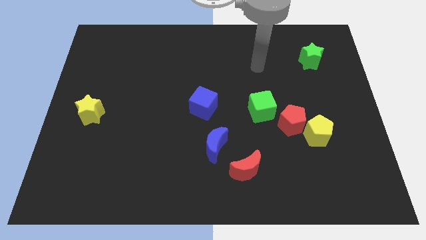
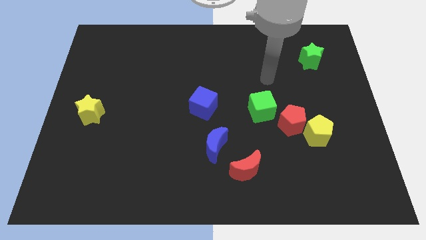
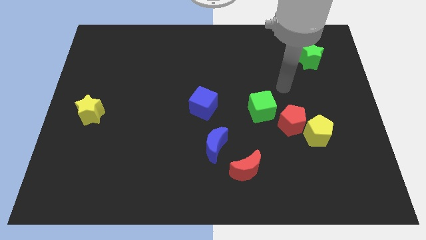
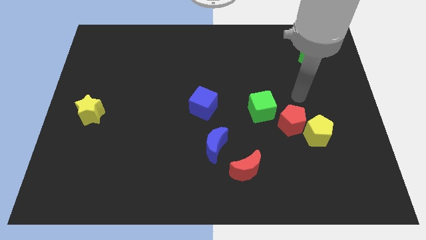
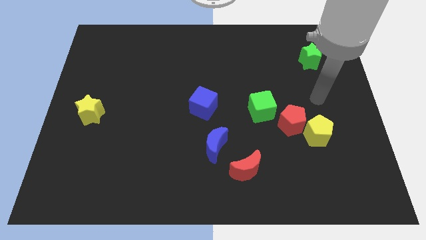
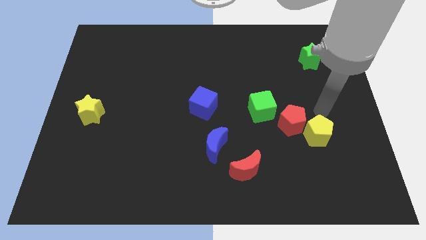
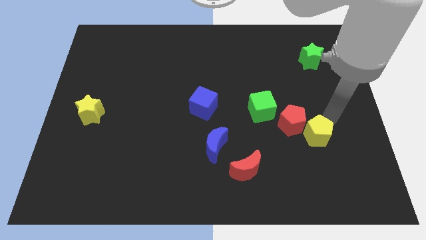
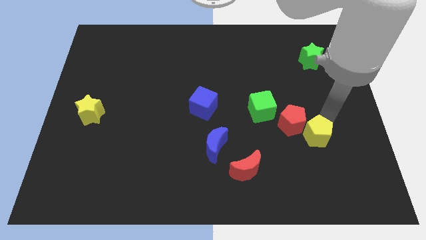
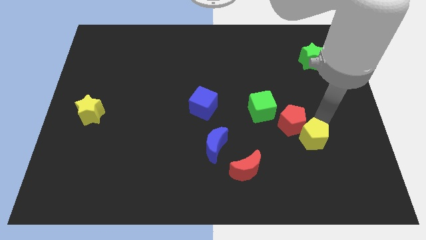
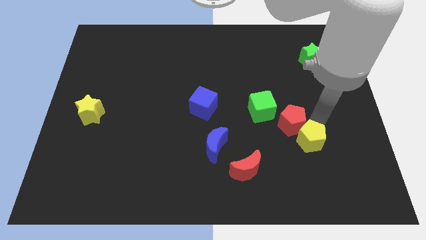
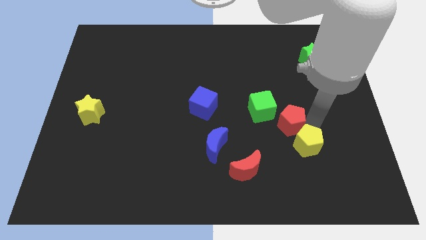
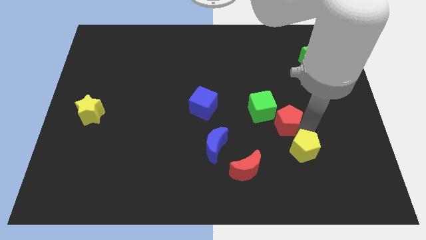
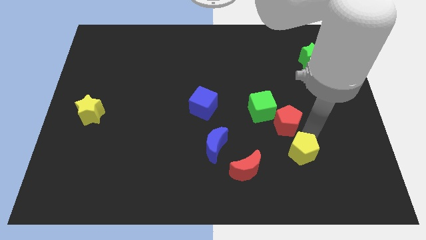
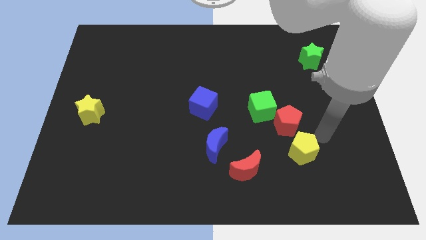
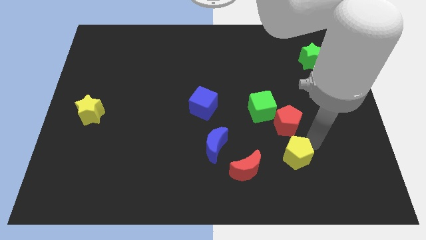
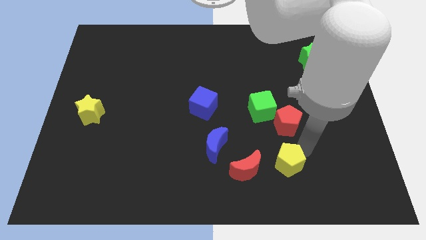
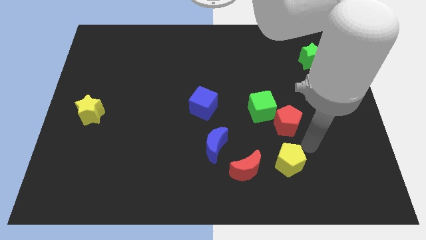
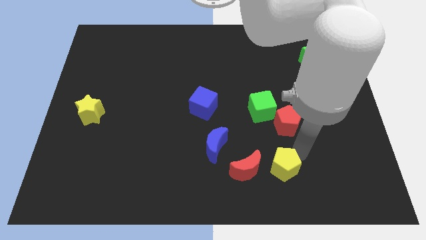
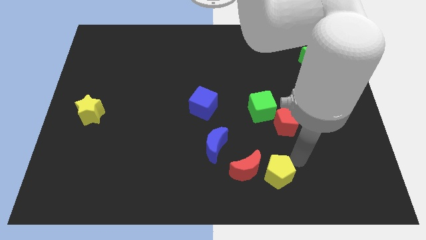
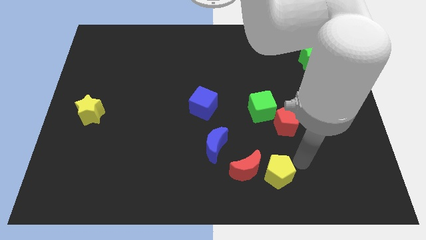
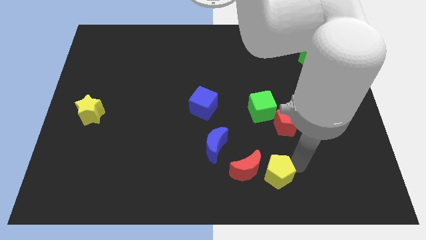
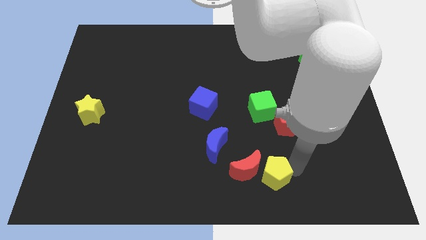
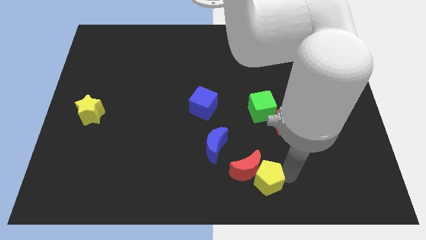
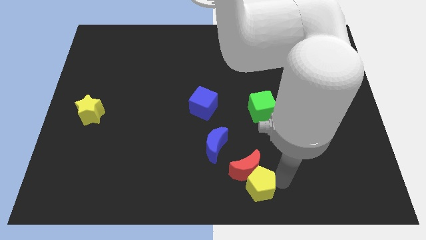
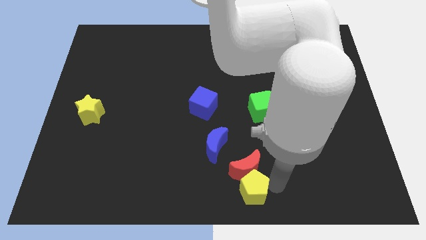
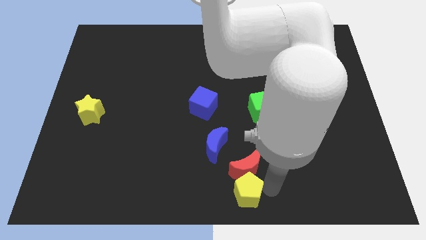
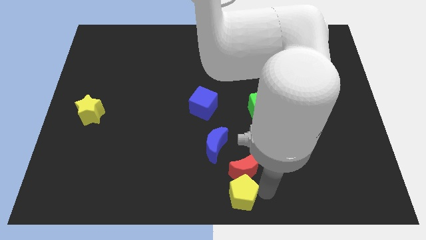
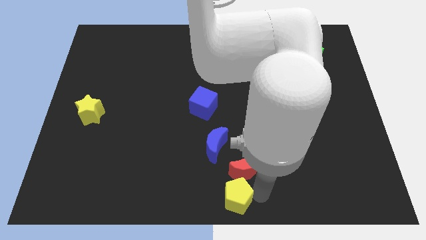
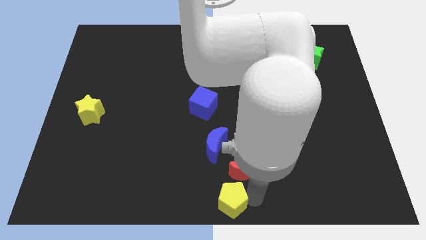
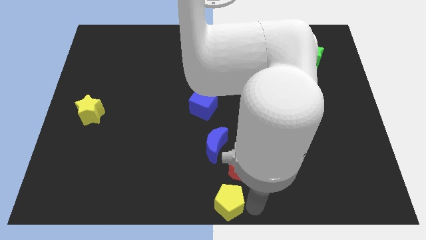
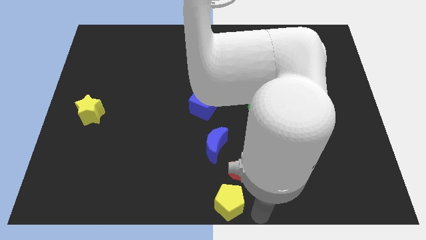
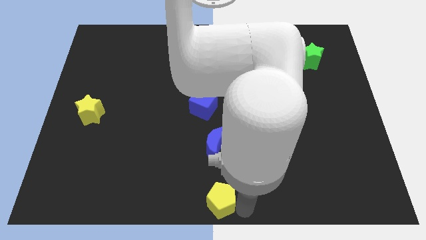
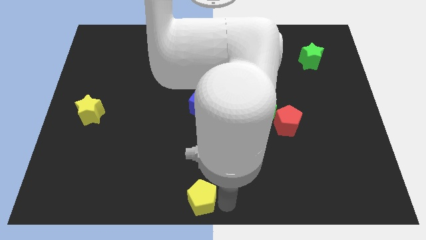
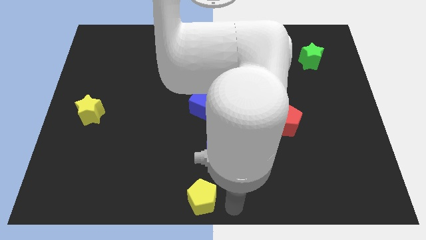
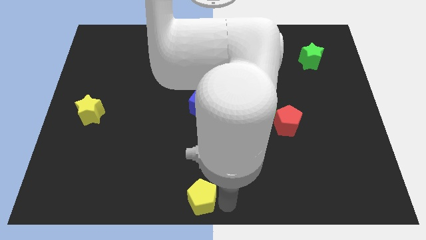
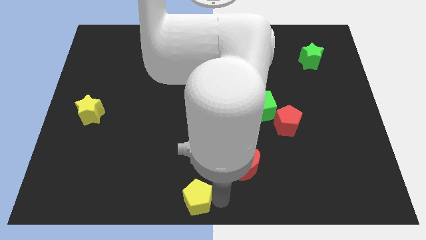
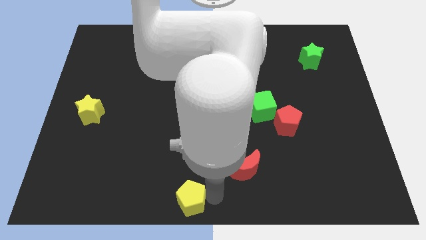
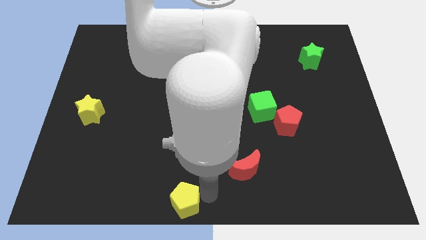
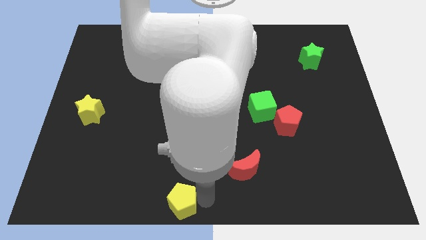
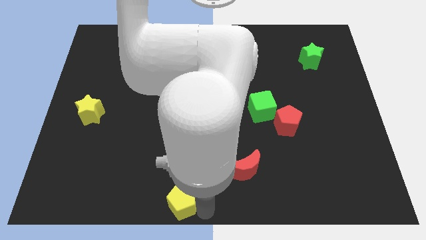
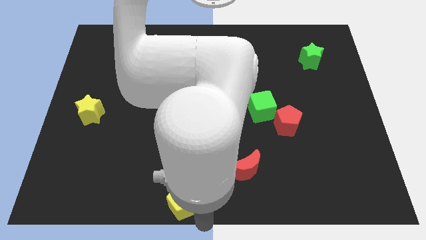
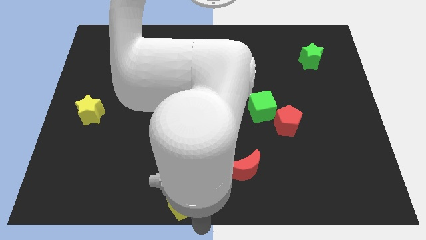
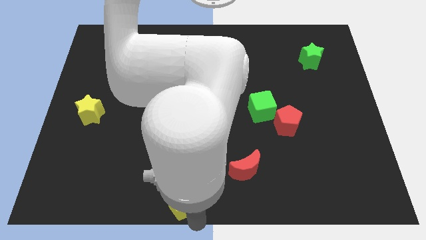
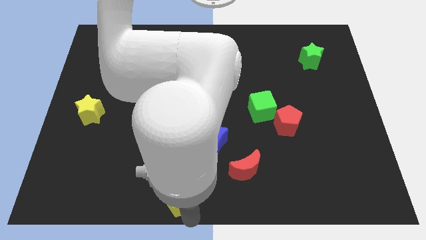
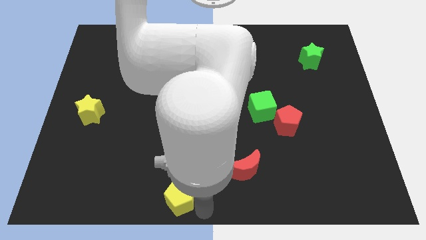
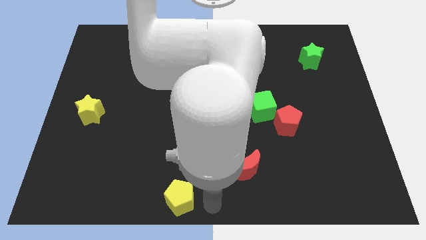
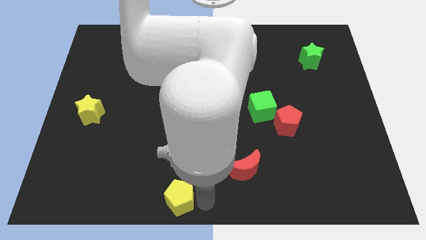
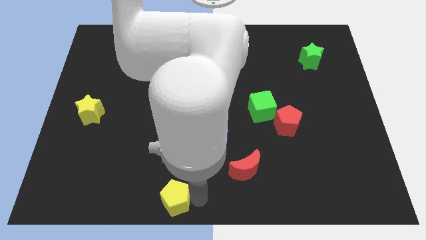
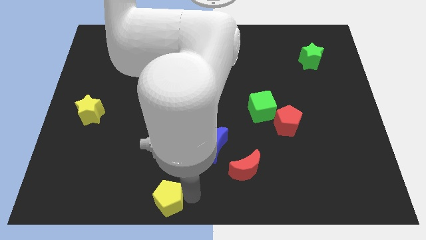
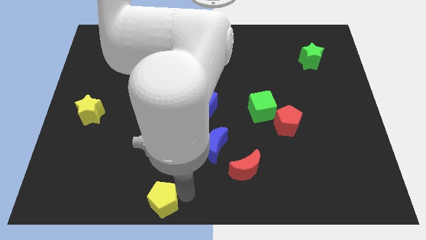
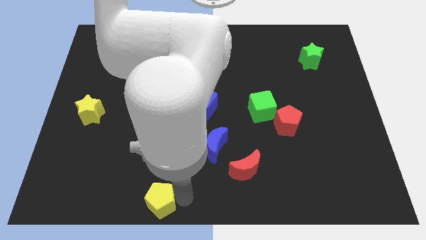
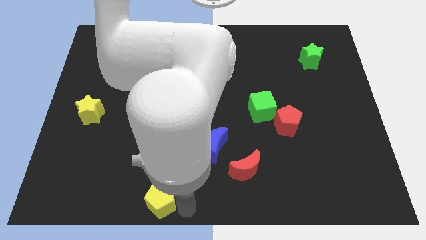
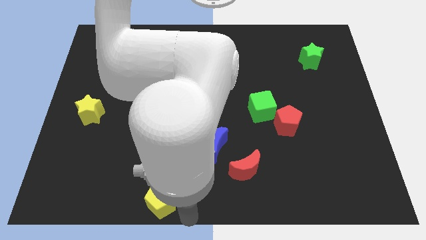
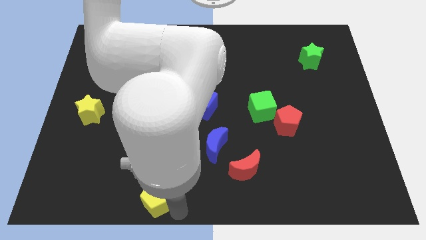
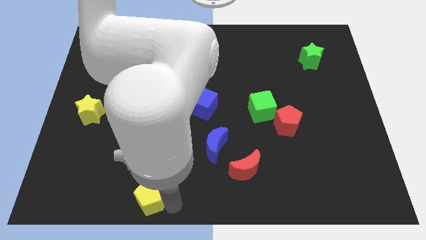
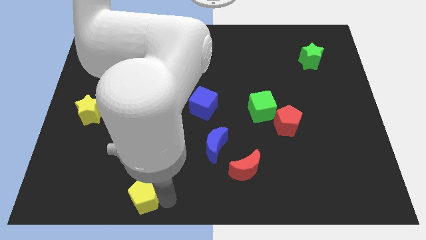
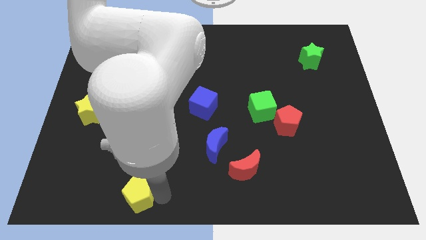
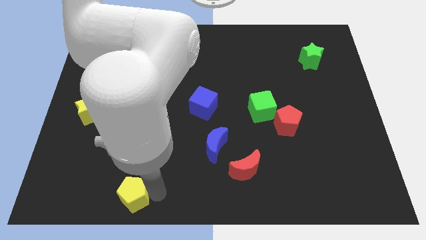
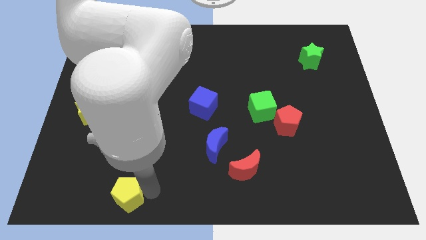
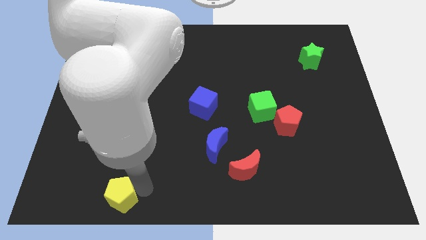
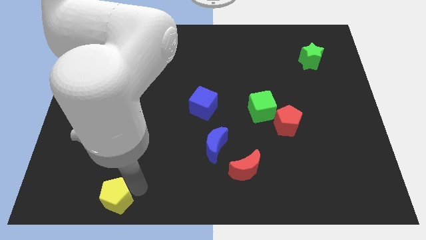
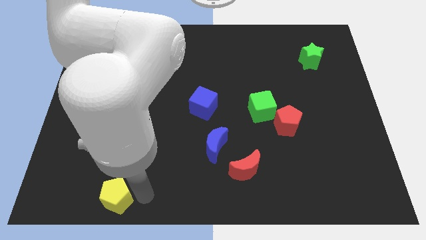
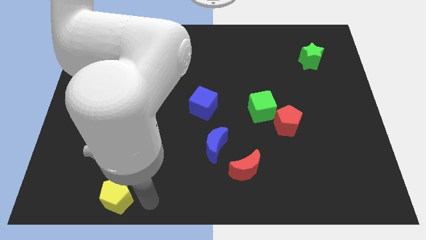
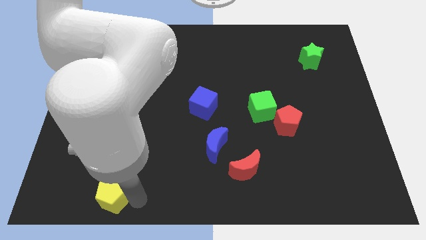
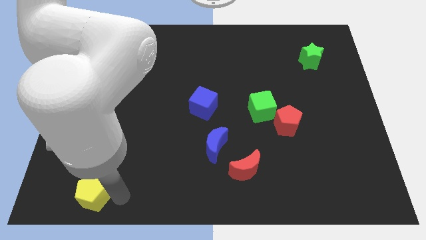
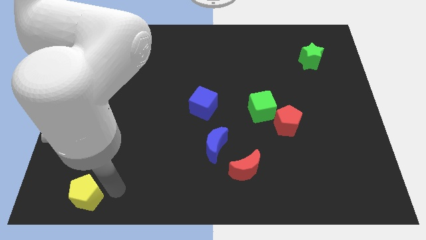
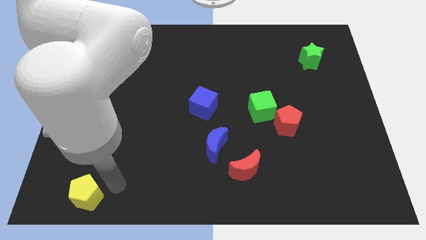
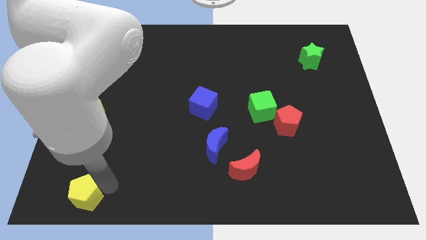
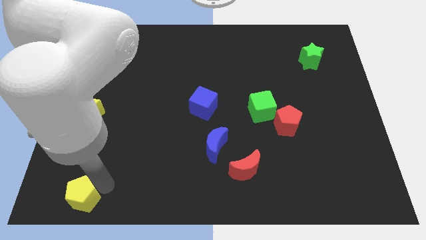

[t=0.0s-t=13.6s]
put the yellow pentagon to the bottom left
